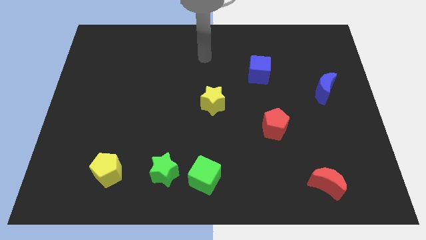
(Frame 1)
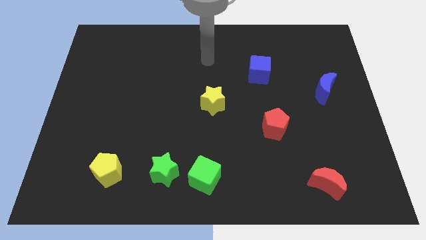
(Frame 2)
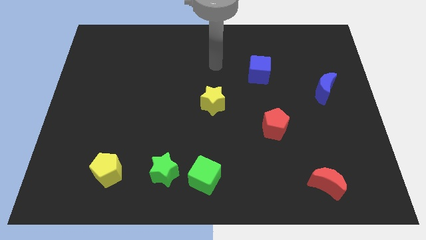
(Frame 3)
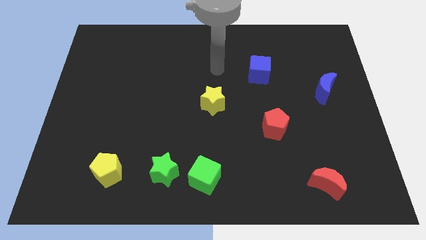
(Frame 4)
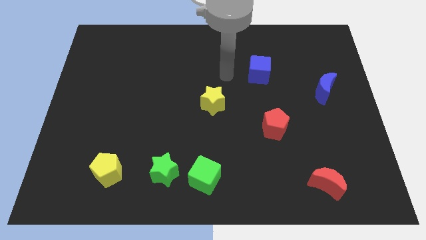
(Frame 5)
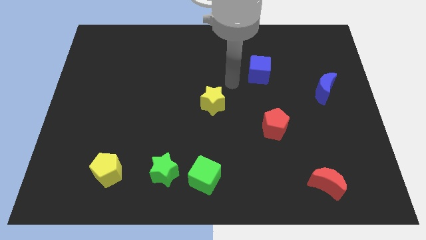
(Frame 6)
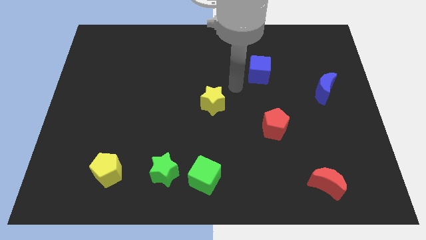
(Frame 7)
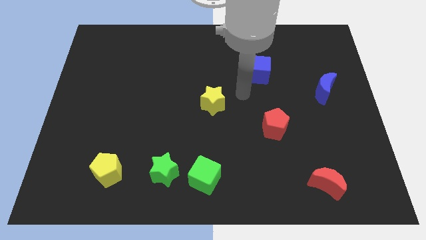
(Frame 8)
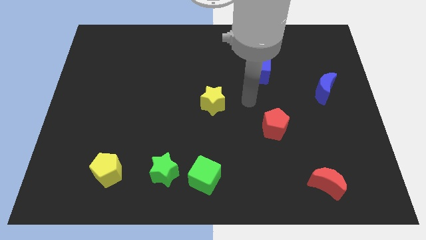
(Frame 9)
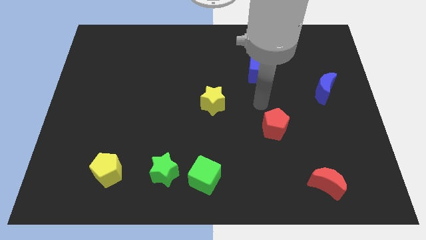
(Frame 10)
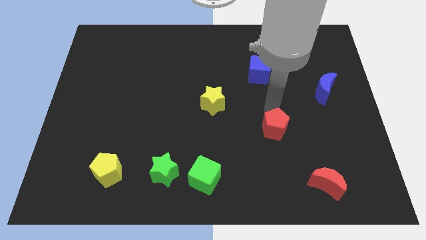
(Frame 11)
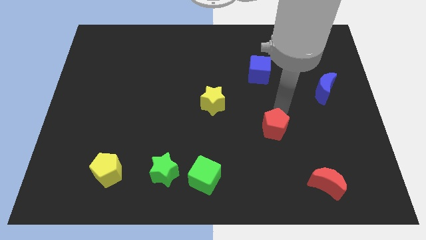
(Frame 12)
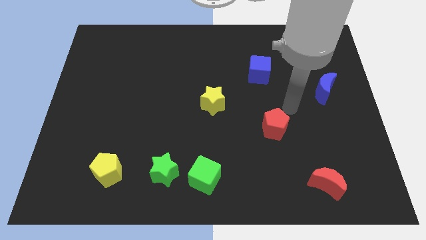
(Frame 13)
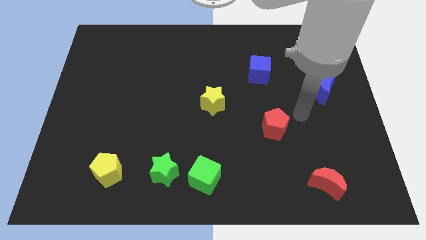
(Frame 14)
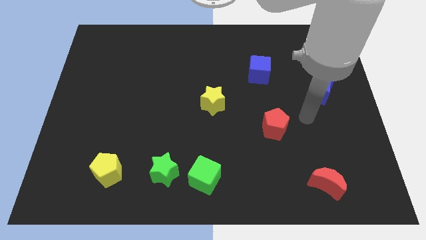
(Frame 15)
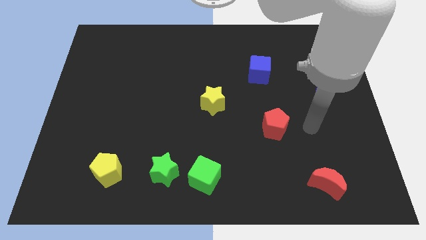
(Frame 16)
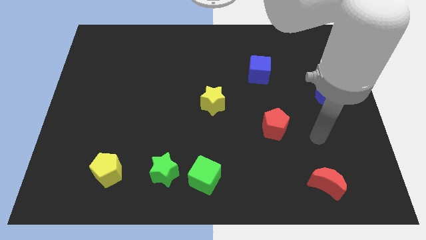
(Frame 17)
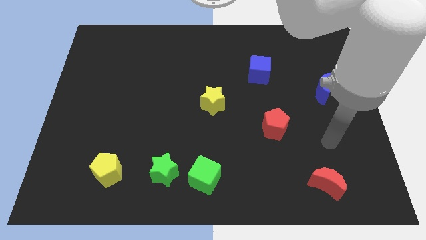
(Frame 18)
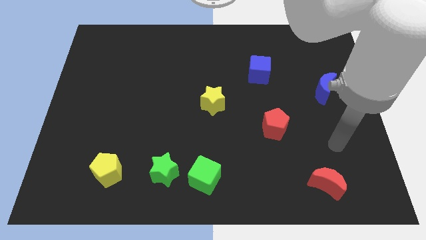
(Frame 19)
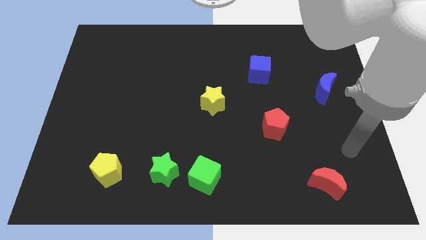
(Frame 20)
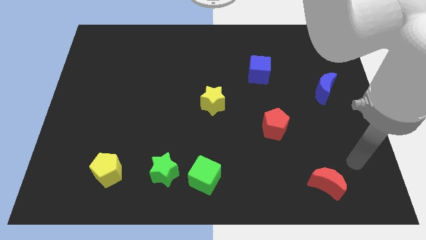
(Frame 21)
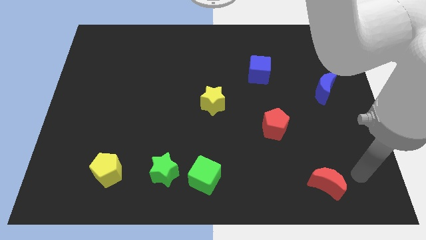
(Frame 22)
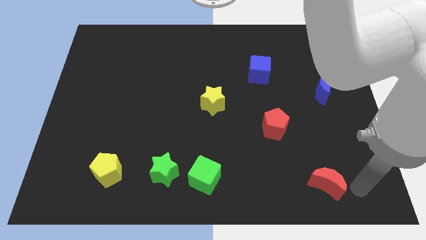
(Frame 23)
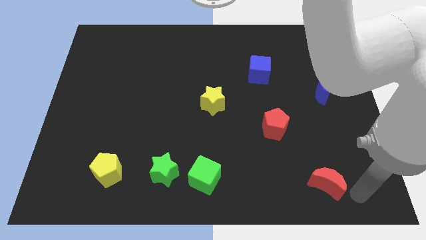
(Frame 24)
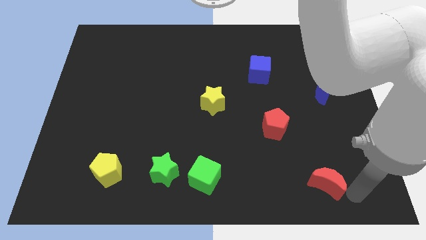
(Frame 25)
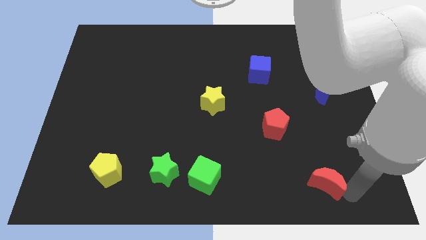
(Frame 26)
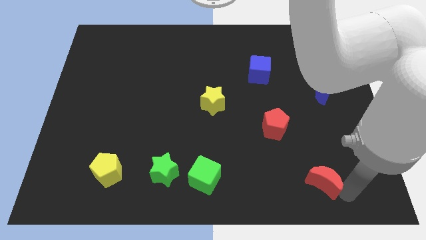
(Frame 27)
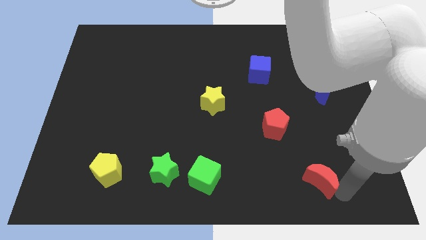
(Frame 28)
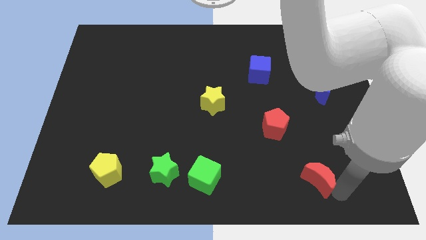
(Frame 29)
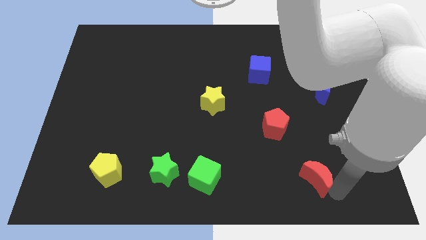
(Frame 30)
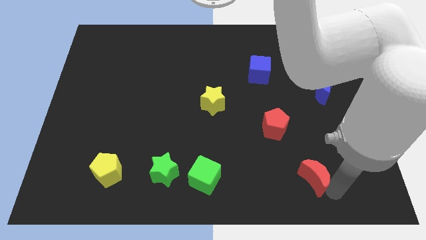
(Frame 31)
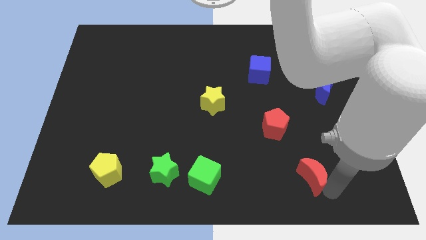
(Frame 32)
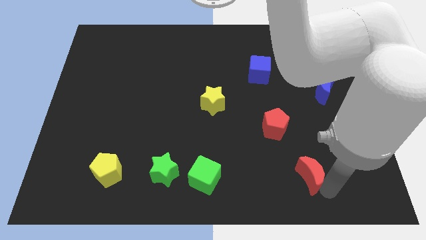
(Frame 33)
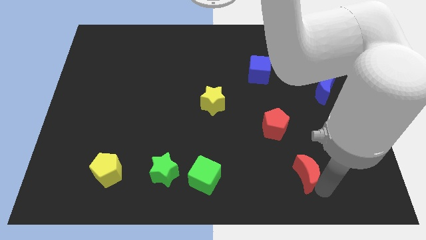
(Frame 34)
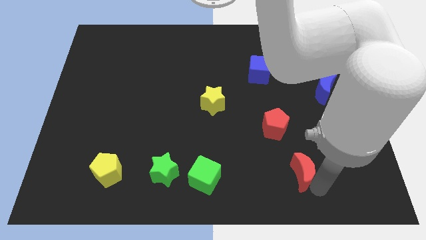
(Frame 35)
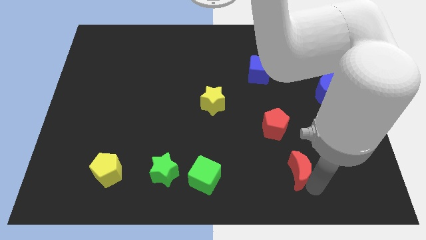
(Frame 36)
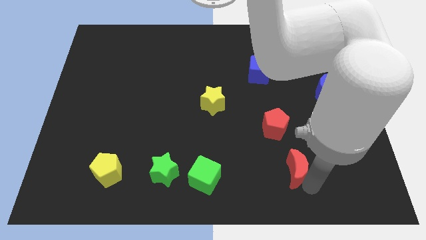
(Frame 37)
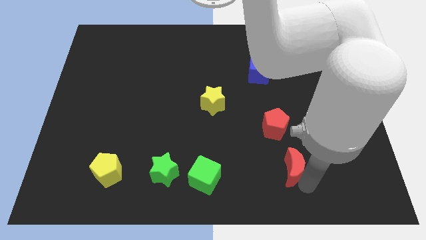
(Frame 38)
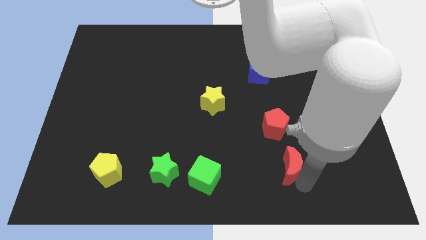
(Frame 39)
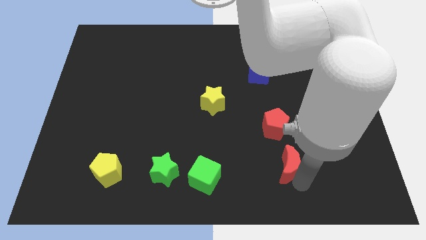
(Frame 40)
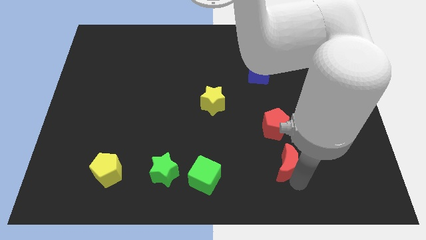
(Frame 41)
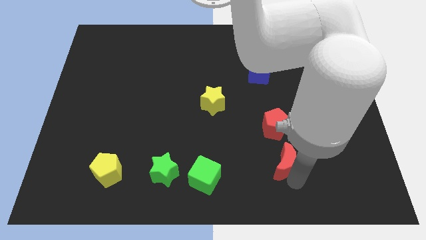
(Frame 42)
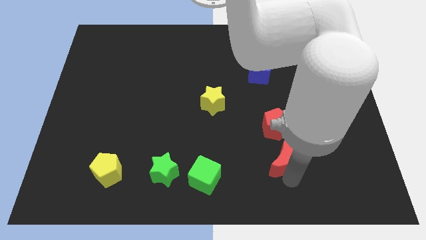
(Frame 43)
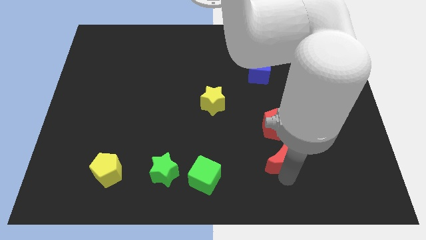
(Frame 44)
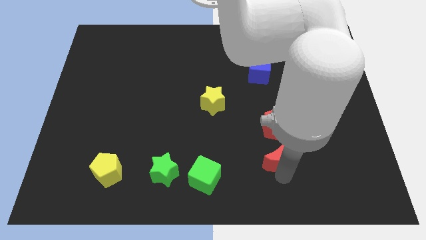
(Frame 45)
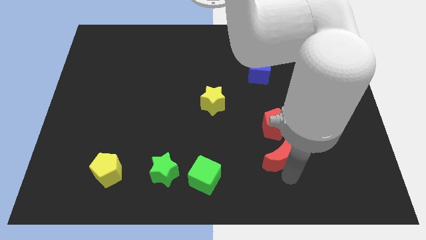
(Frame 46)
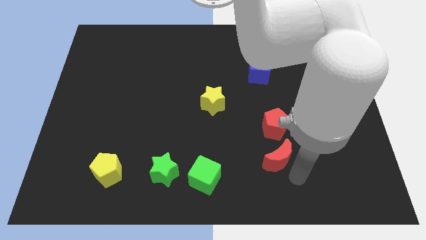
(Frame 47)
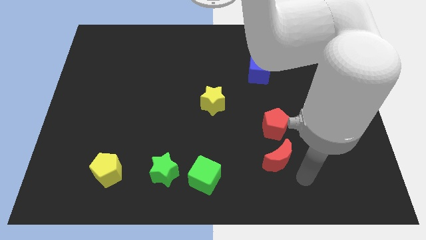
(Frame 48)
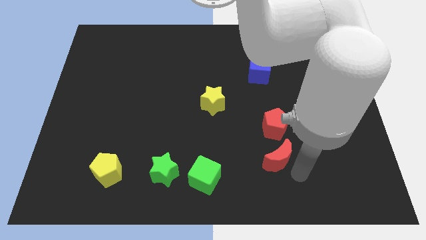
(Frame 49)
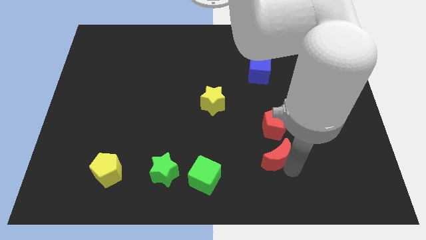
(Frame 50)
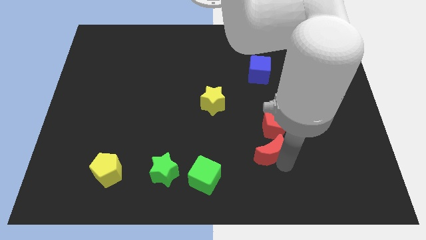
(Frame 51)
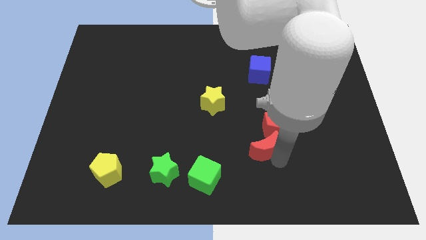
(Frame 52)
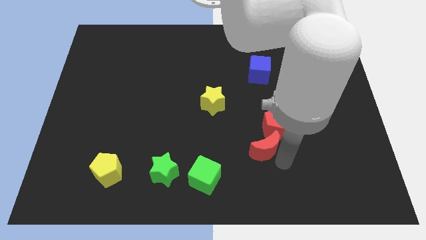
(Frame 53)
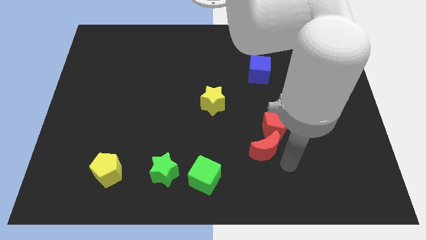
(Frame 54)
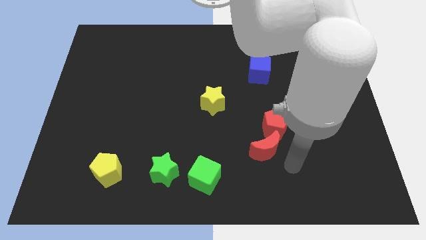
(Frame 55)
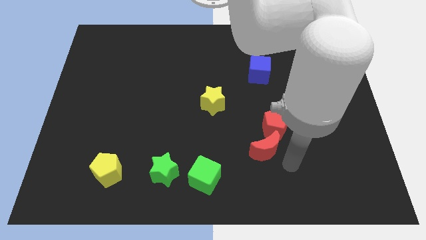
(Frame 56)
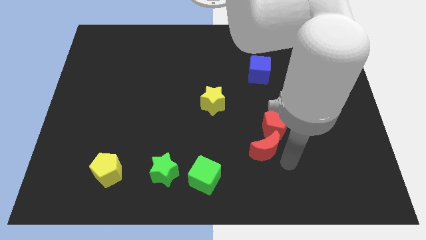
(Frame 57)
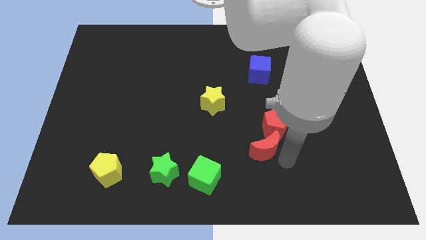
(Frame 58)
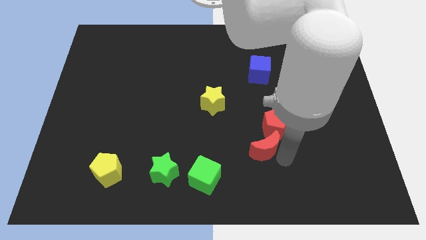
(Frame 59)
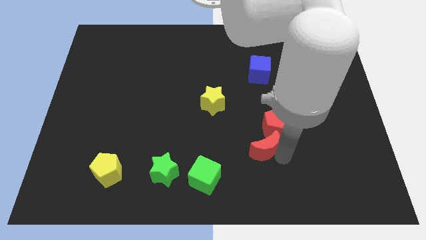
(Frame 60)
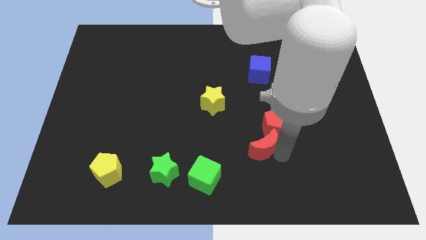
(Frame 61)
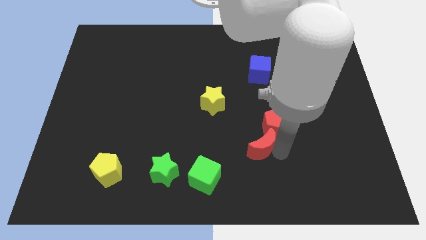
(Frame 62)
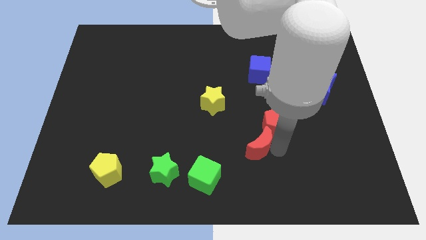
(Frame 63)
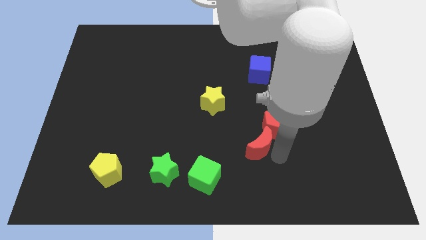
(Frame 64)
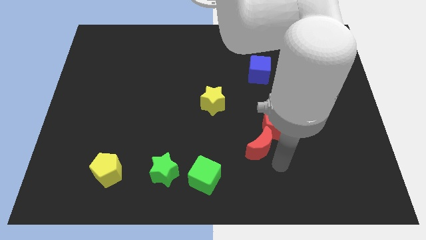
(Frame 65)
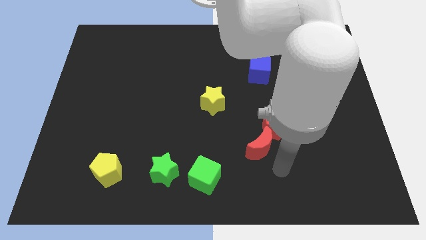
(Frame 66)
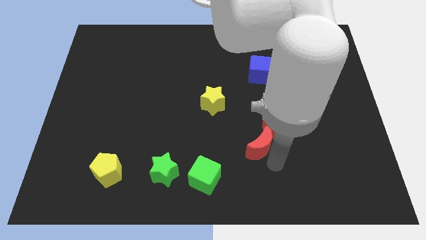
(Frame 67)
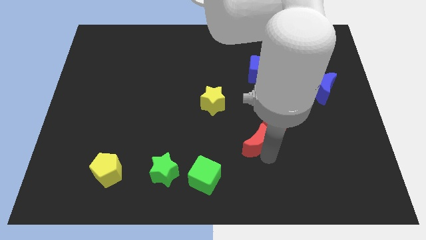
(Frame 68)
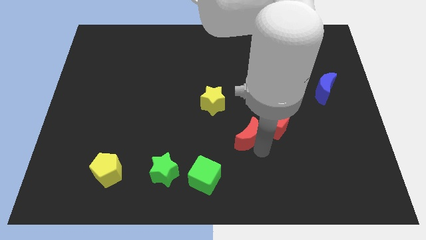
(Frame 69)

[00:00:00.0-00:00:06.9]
push the red moon diagonally down and to the right of the yellow star
